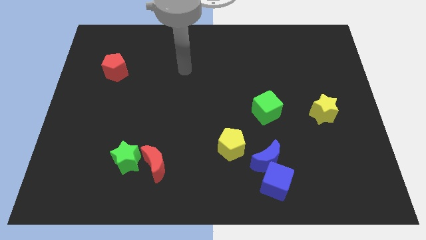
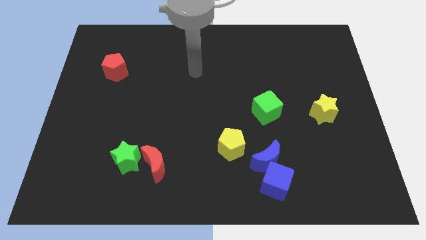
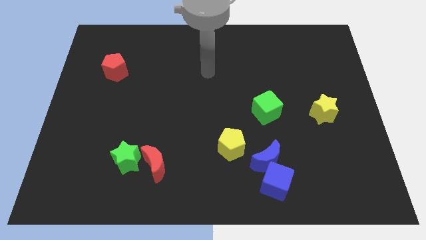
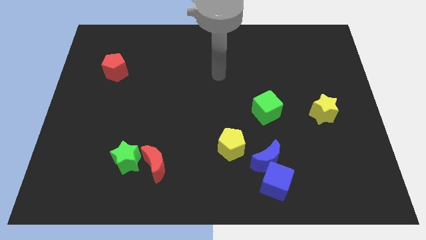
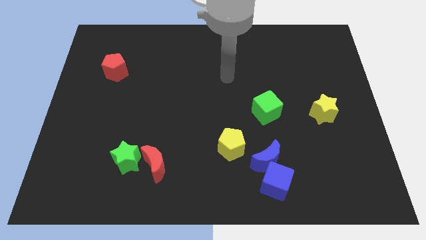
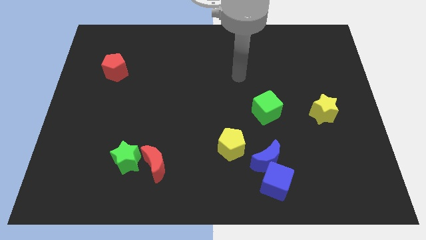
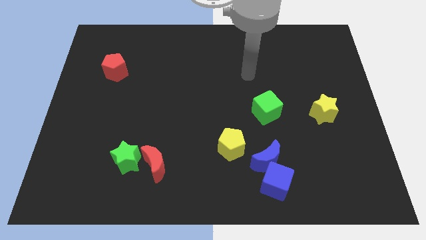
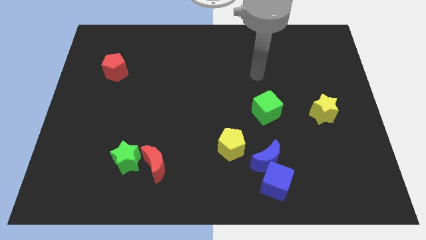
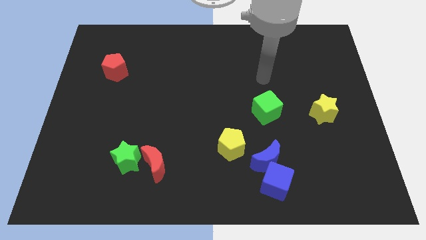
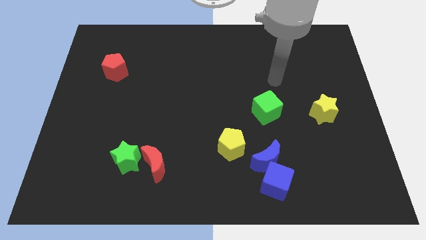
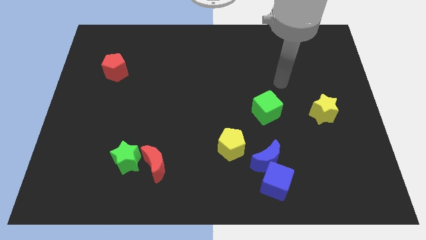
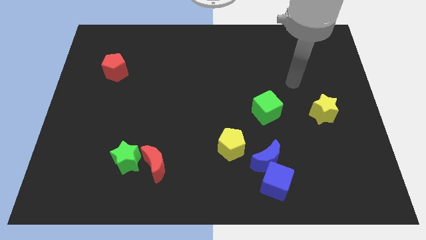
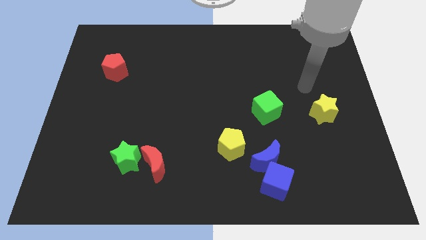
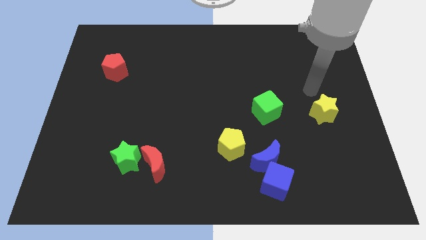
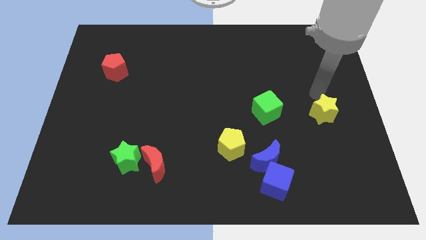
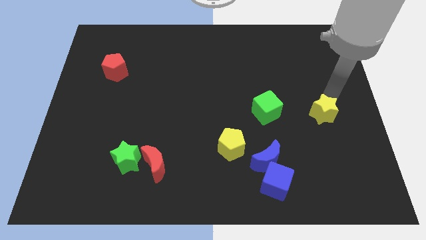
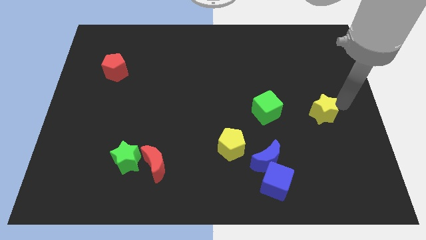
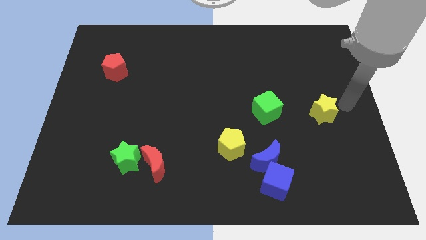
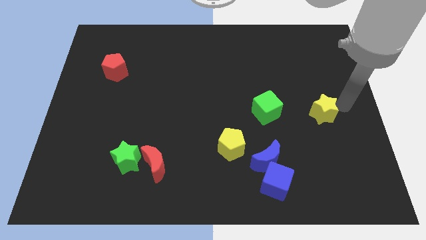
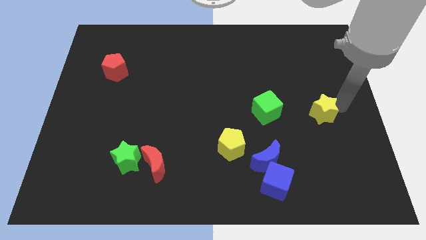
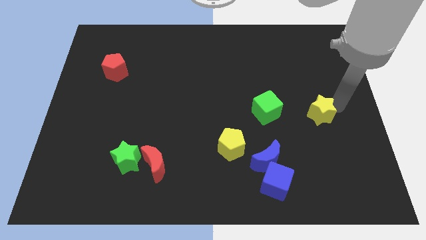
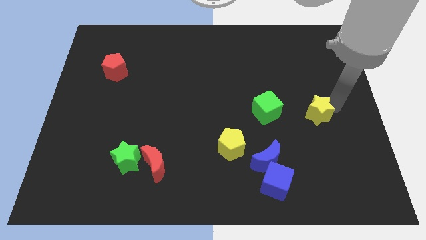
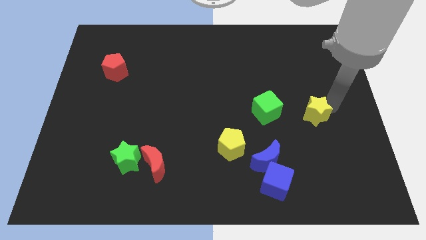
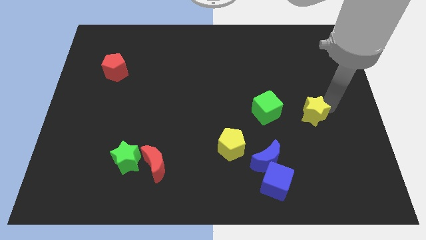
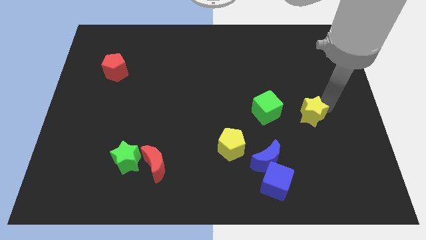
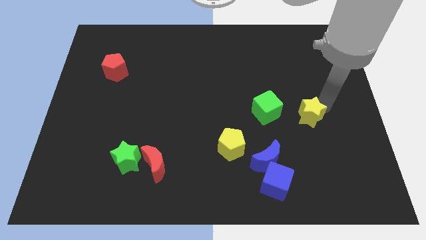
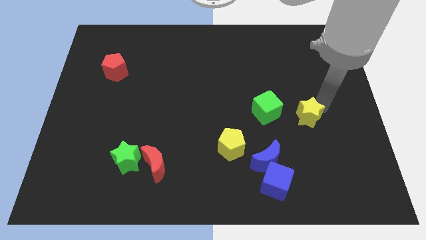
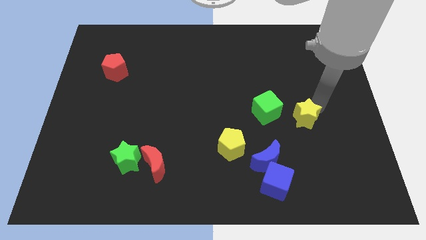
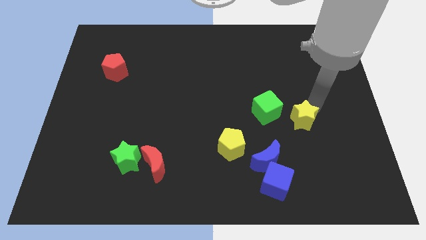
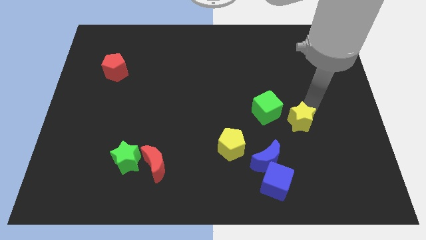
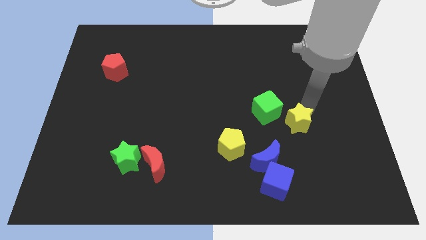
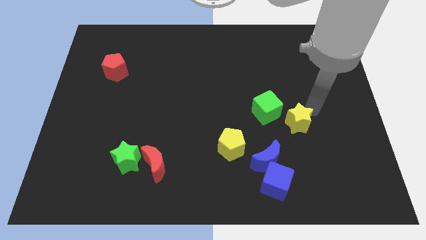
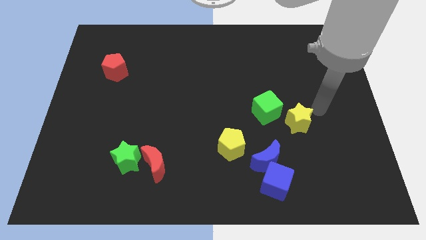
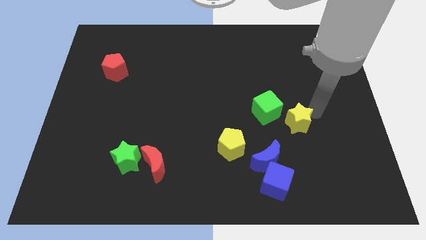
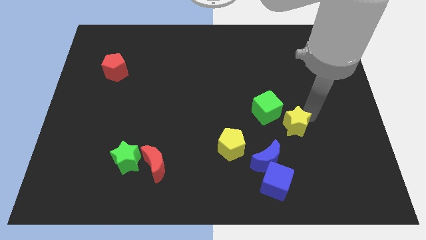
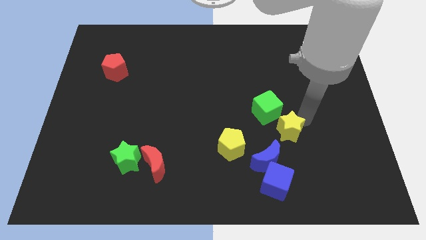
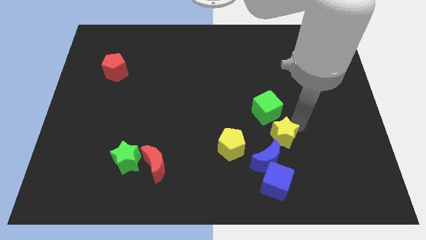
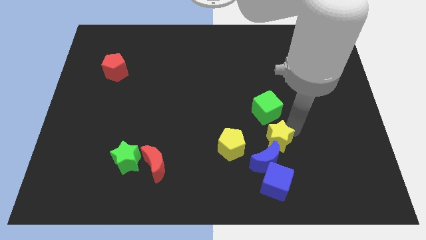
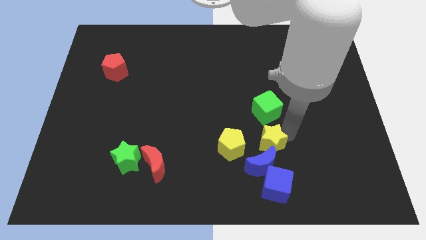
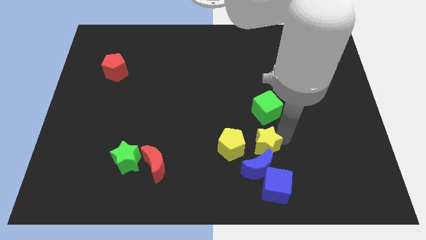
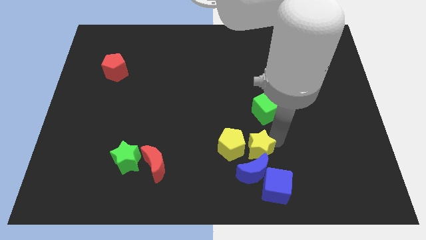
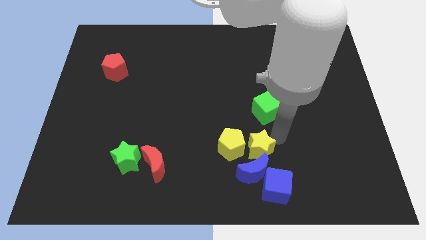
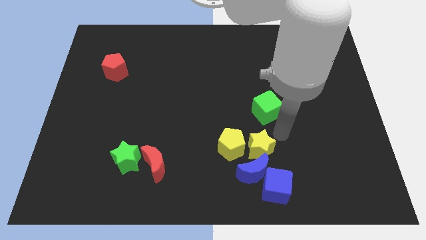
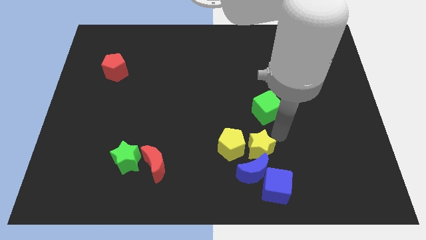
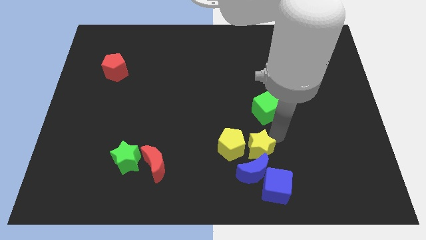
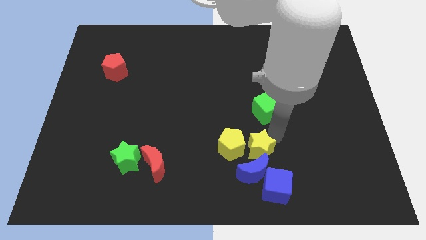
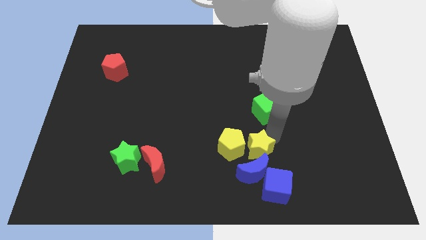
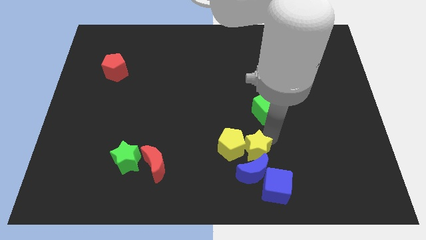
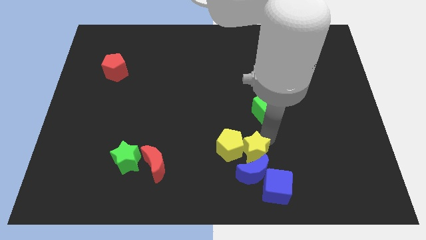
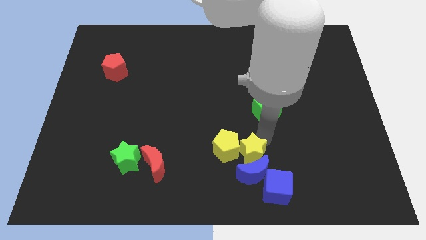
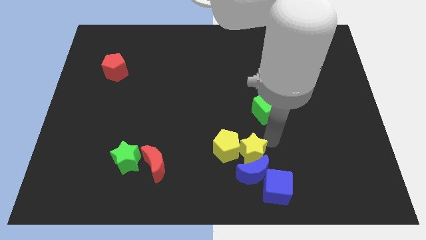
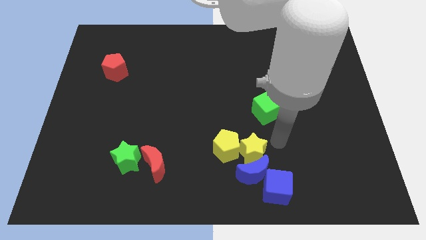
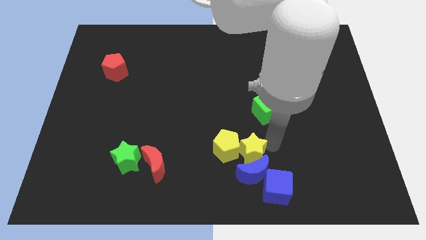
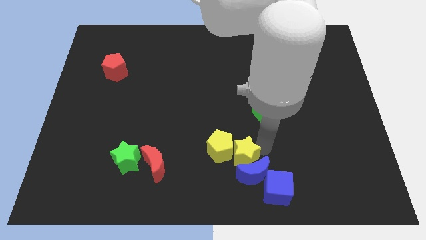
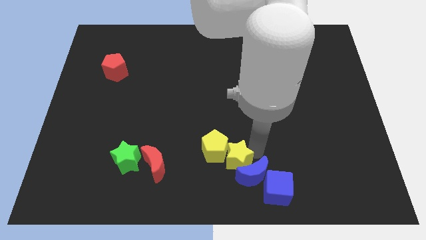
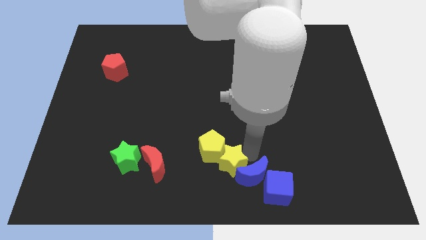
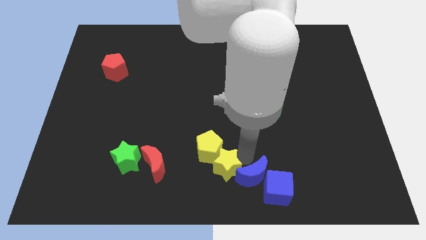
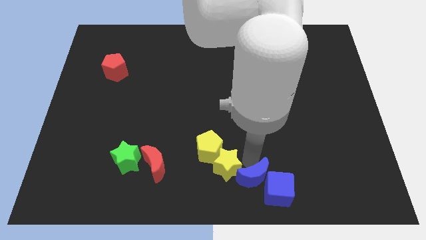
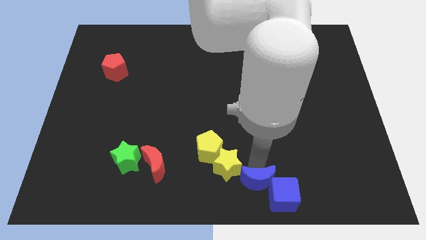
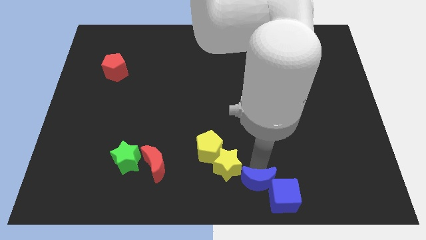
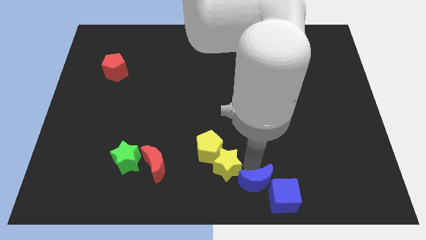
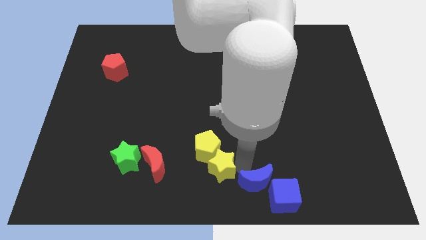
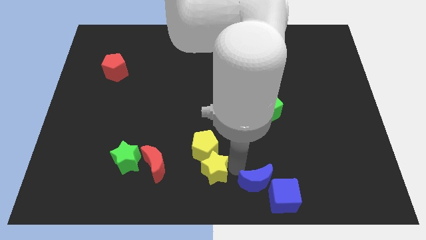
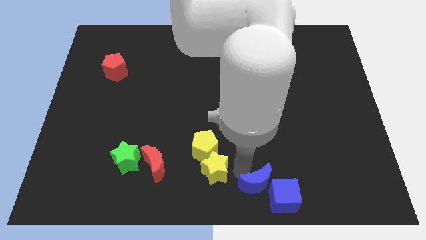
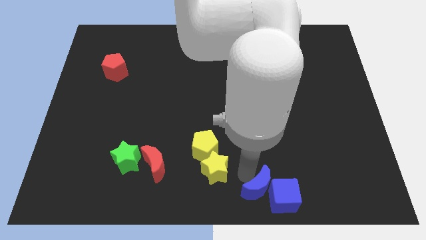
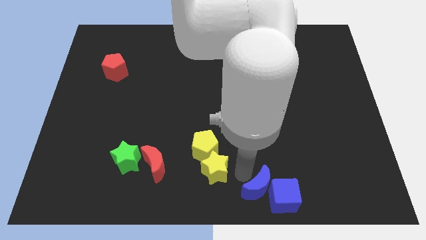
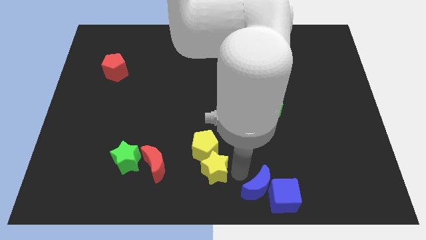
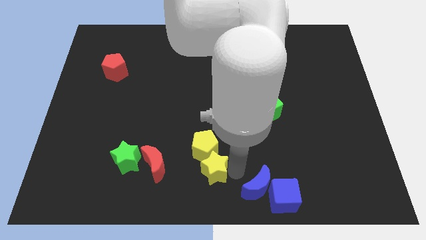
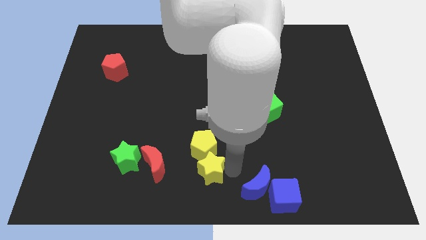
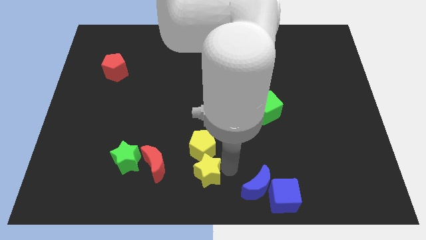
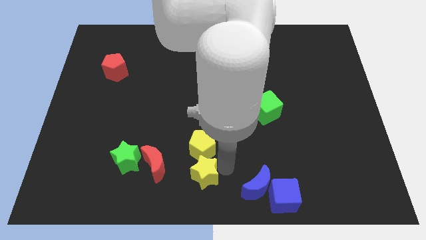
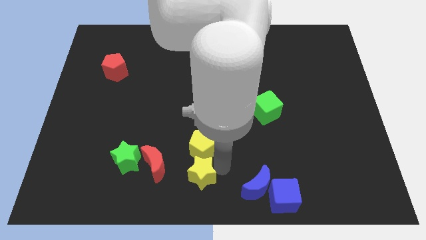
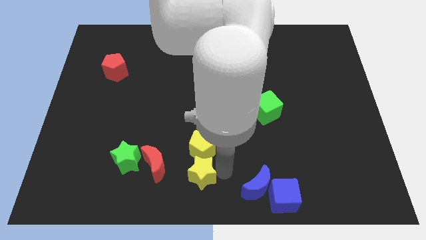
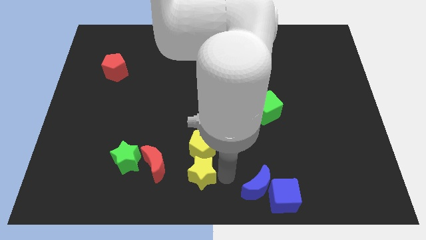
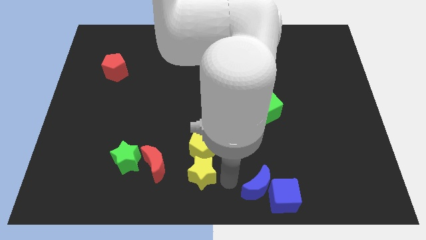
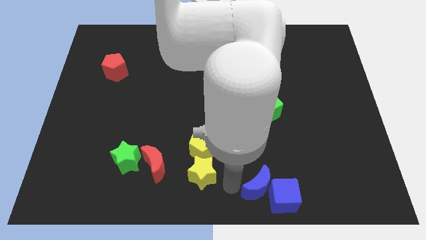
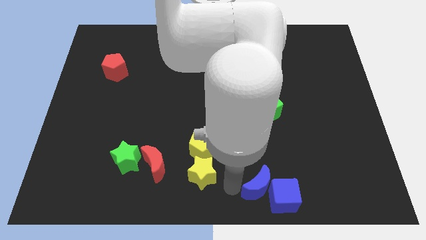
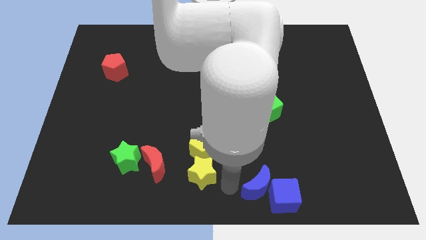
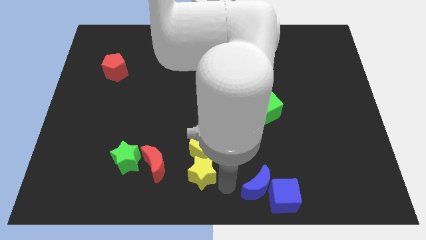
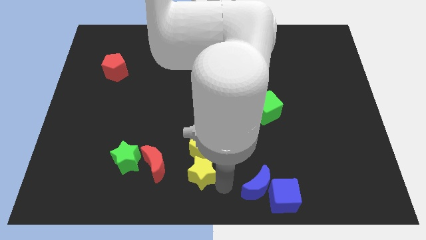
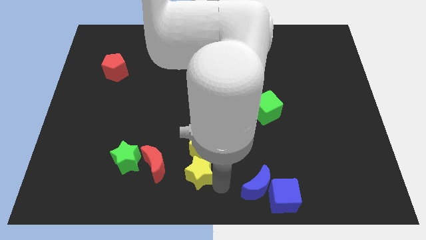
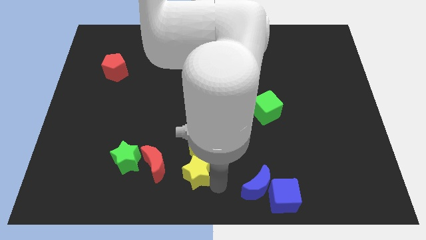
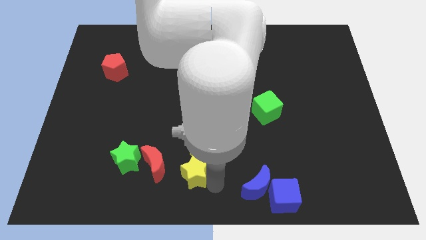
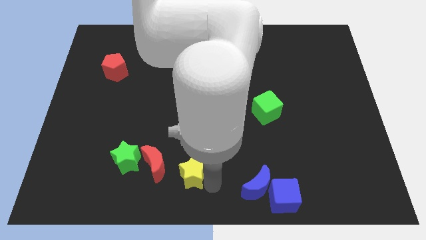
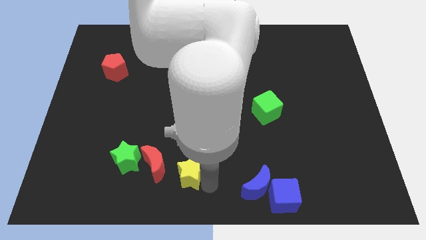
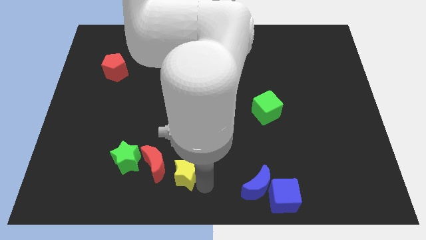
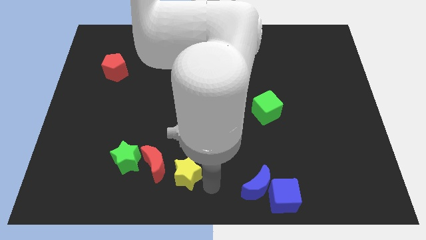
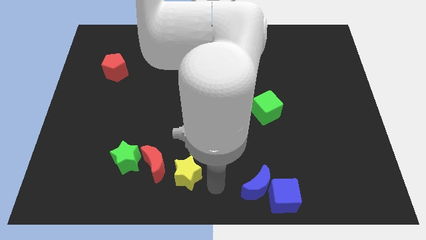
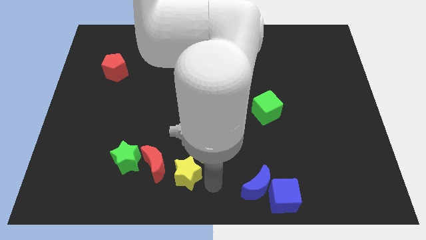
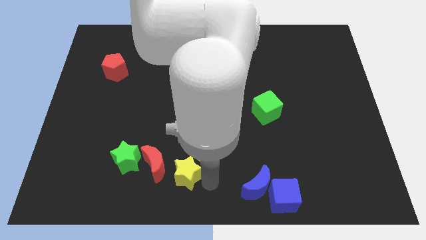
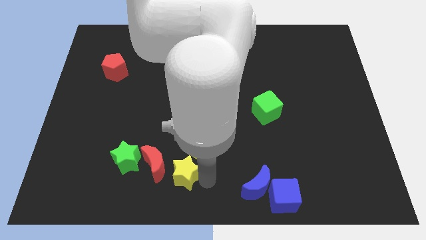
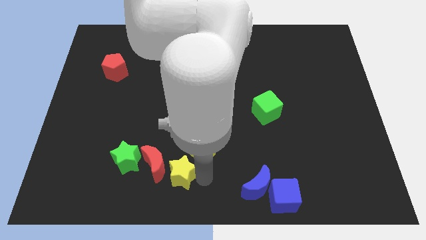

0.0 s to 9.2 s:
move the yellow star towards the red moon
